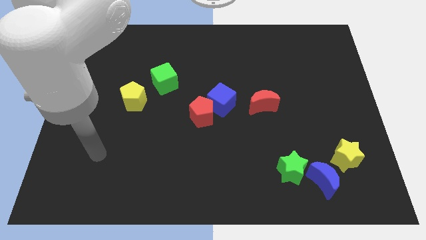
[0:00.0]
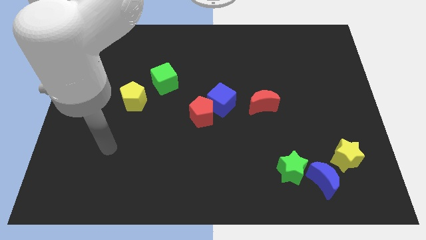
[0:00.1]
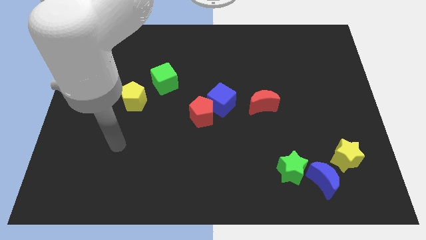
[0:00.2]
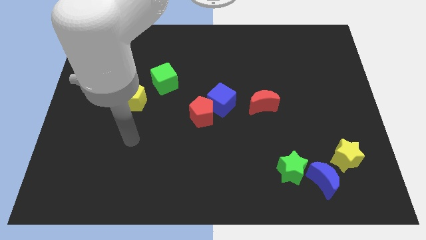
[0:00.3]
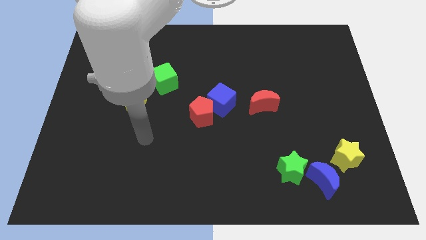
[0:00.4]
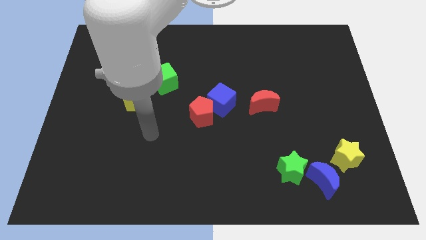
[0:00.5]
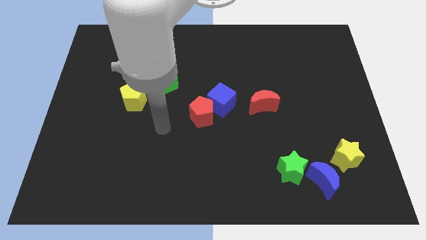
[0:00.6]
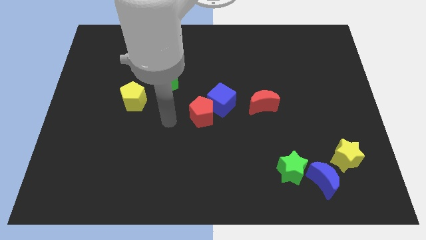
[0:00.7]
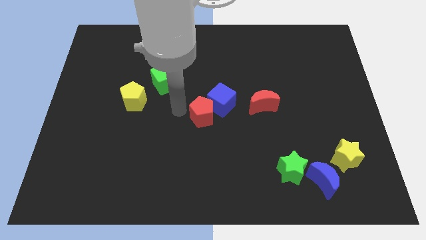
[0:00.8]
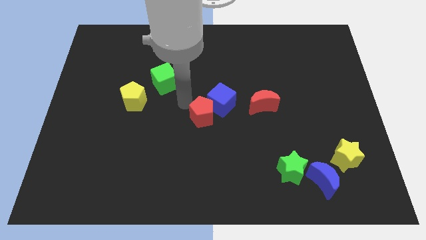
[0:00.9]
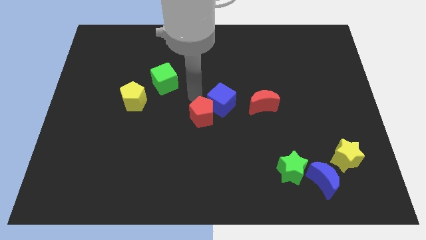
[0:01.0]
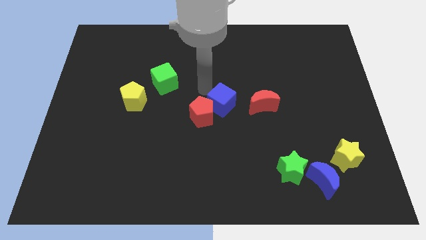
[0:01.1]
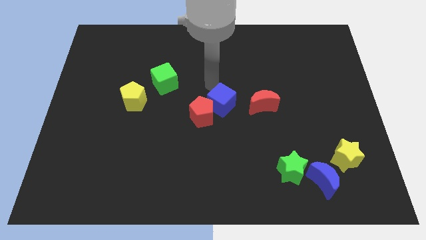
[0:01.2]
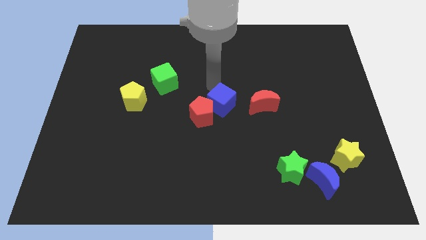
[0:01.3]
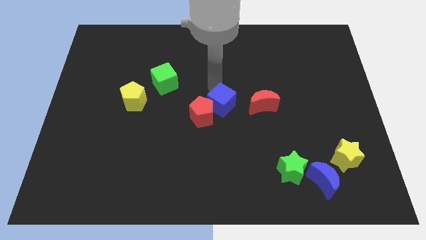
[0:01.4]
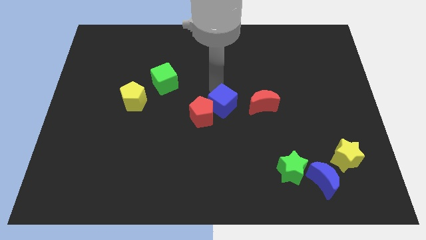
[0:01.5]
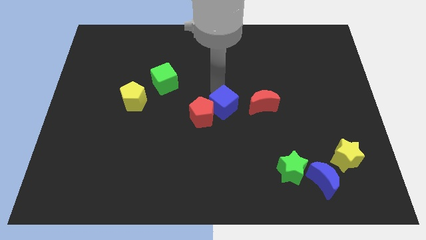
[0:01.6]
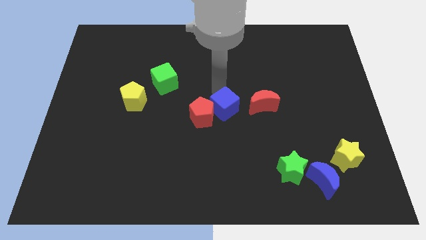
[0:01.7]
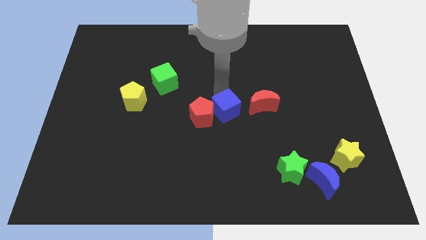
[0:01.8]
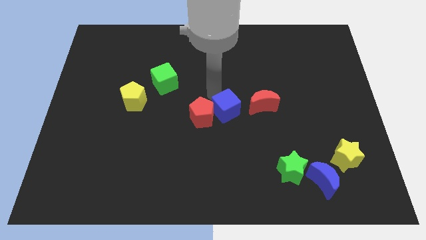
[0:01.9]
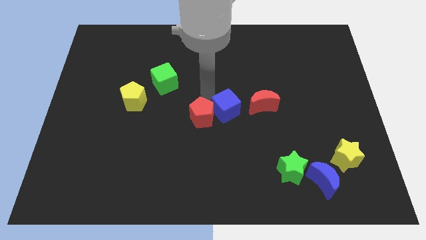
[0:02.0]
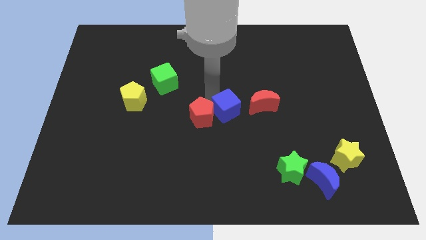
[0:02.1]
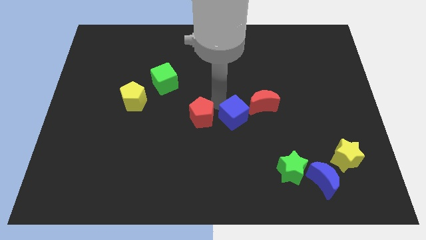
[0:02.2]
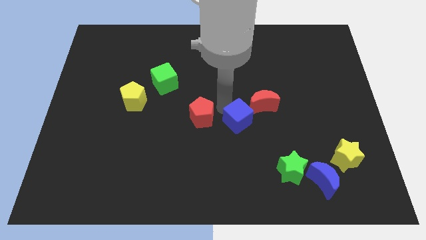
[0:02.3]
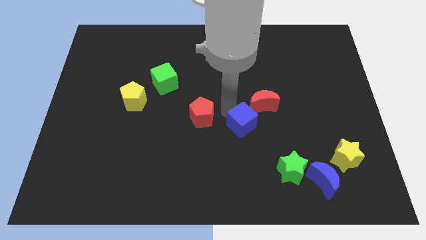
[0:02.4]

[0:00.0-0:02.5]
move the blue cube a bit down and right diagonally

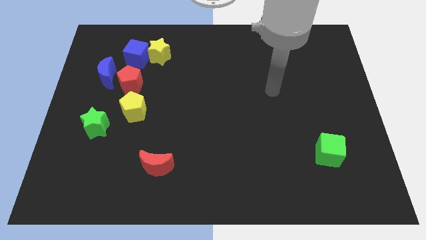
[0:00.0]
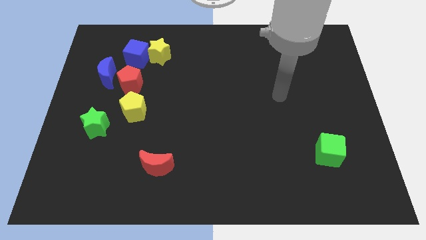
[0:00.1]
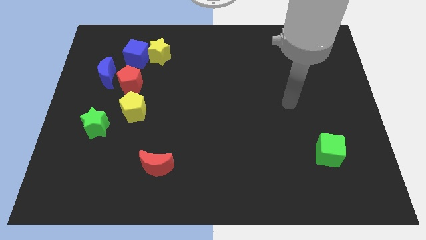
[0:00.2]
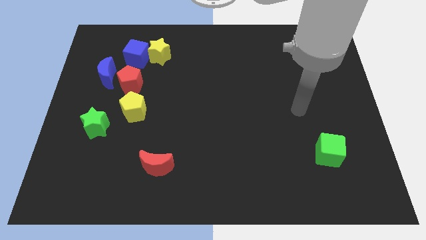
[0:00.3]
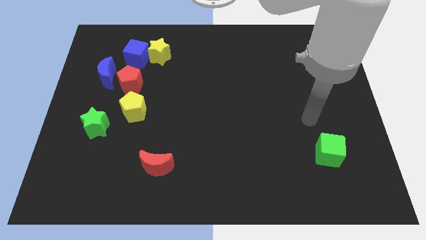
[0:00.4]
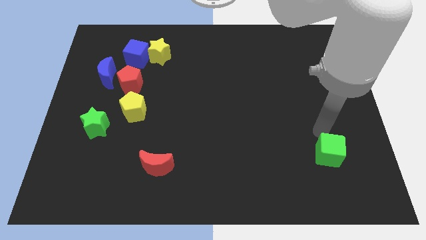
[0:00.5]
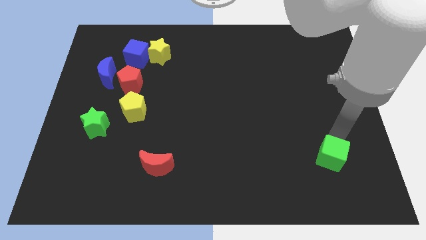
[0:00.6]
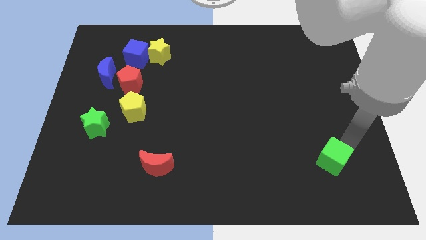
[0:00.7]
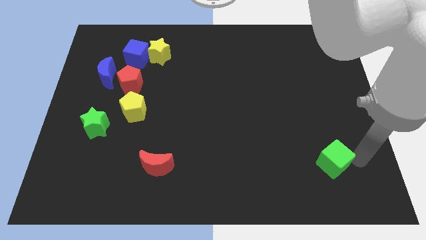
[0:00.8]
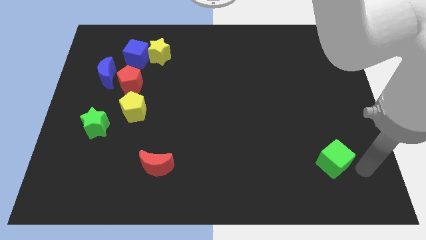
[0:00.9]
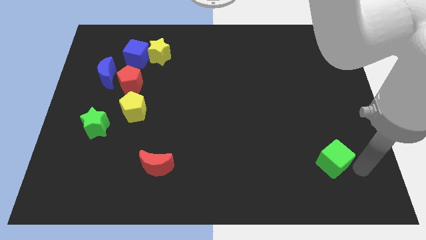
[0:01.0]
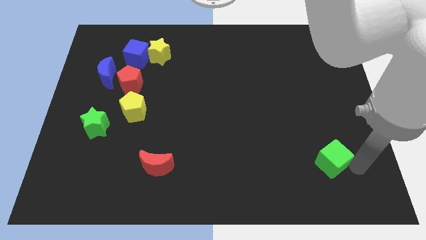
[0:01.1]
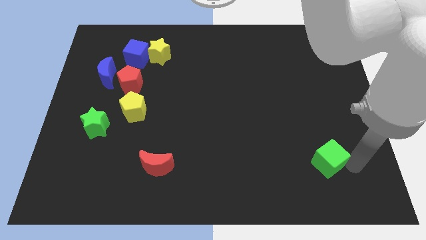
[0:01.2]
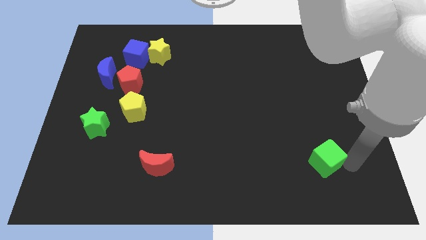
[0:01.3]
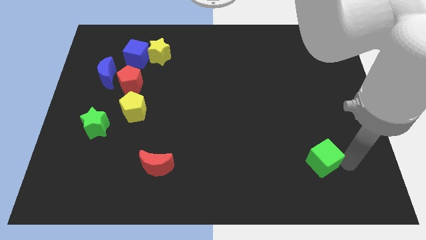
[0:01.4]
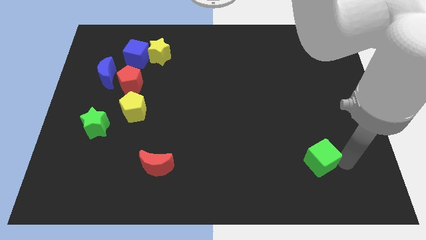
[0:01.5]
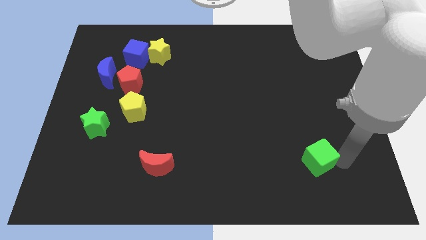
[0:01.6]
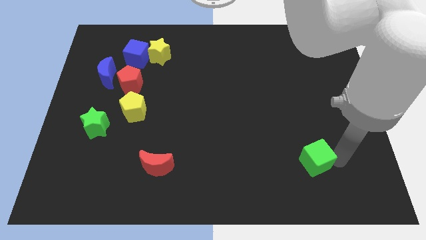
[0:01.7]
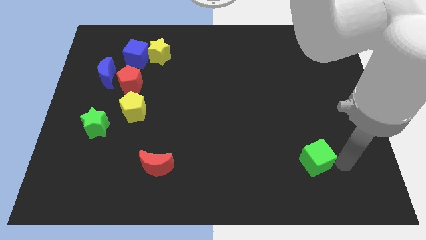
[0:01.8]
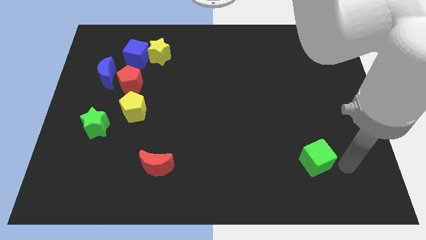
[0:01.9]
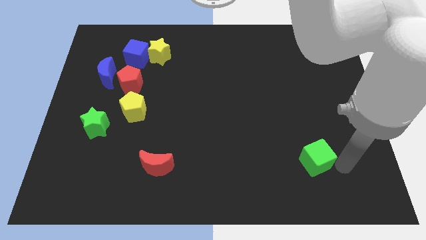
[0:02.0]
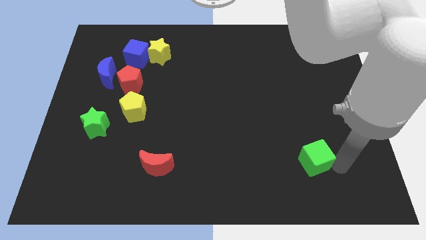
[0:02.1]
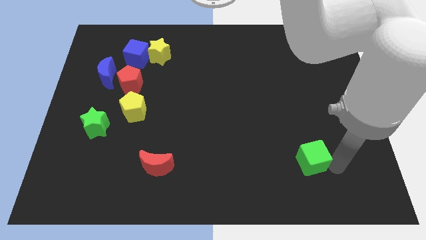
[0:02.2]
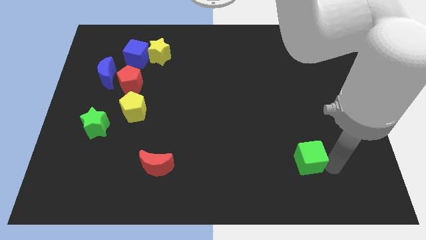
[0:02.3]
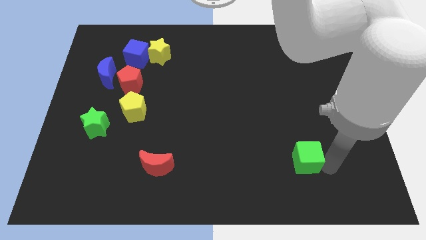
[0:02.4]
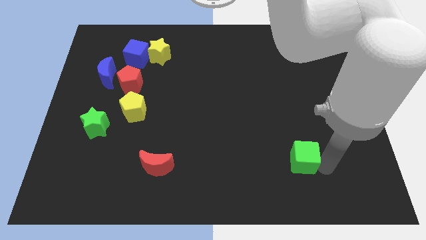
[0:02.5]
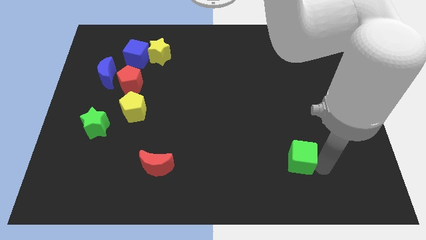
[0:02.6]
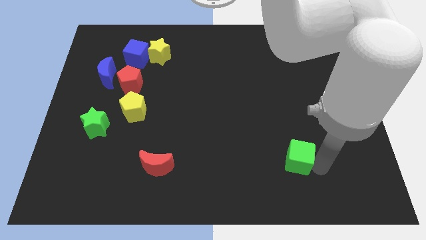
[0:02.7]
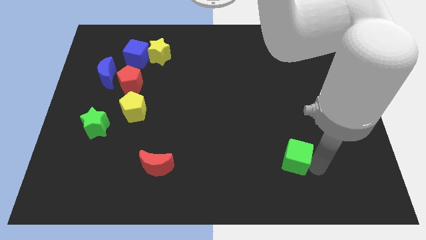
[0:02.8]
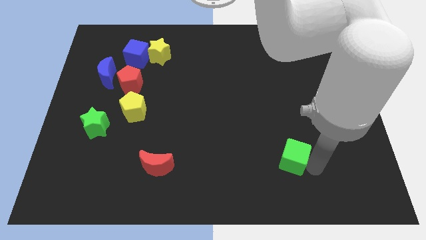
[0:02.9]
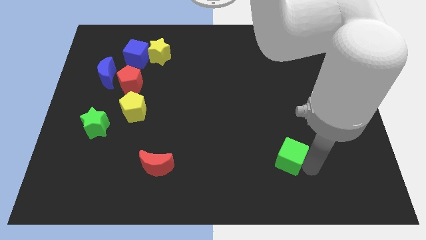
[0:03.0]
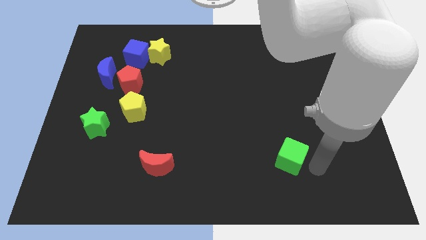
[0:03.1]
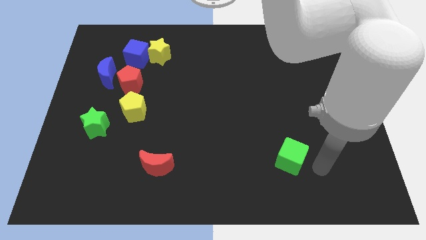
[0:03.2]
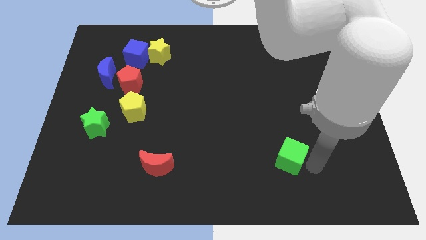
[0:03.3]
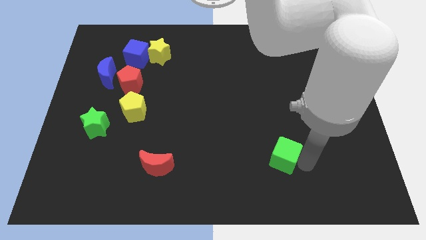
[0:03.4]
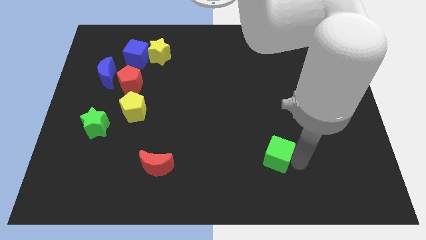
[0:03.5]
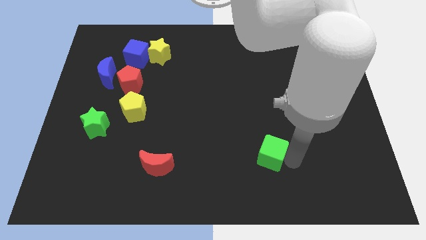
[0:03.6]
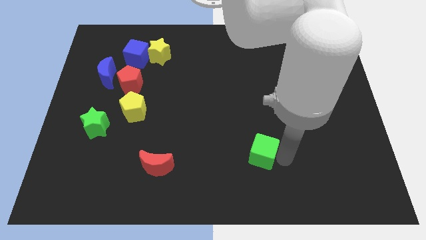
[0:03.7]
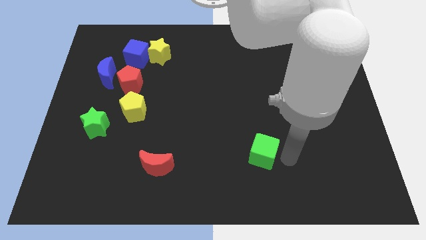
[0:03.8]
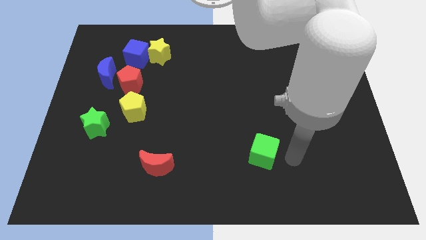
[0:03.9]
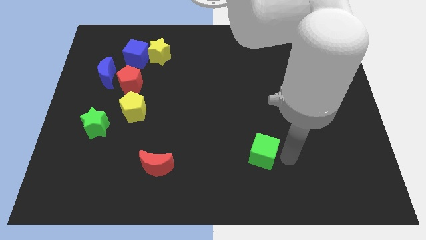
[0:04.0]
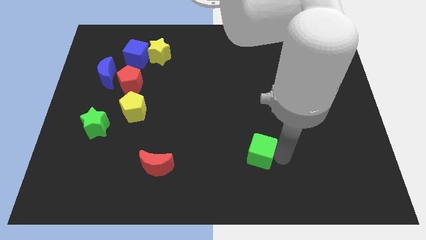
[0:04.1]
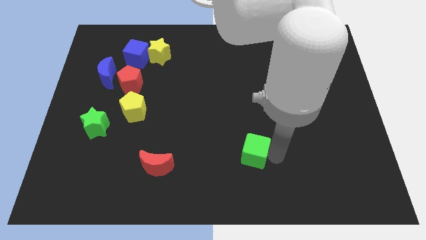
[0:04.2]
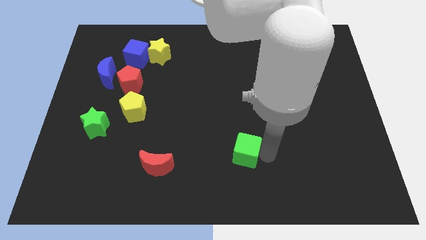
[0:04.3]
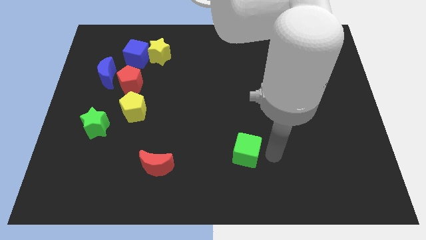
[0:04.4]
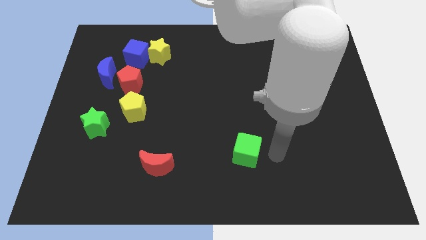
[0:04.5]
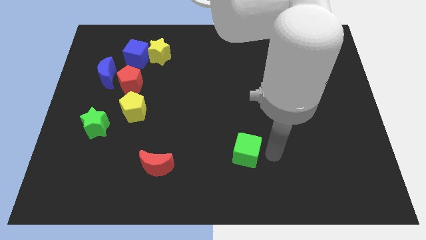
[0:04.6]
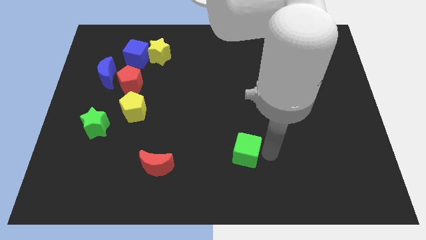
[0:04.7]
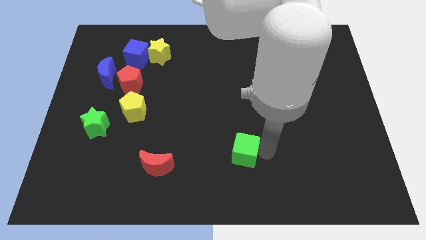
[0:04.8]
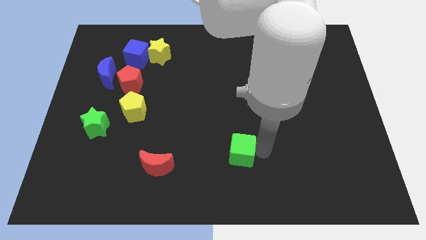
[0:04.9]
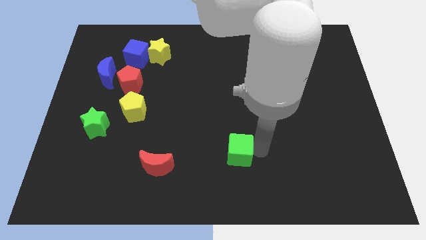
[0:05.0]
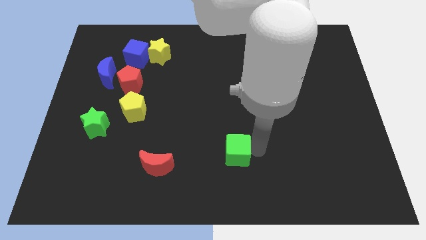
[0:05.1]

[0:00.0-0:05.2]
push the green cube left

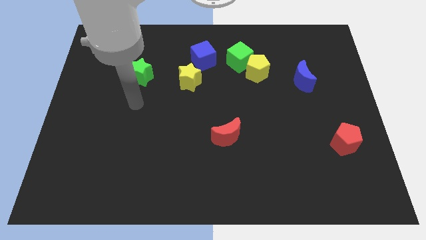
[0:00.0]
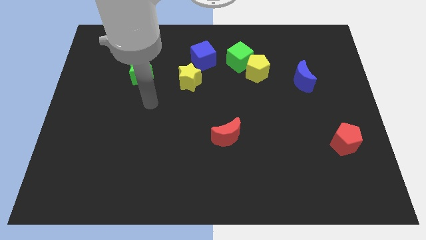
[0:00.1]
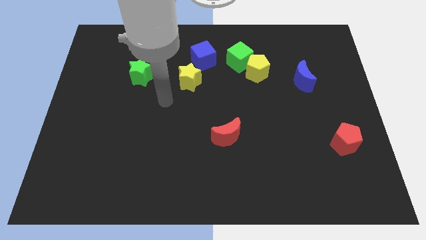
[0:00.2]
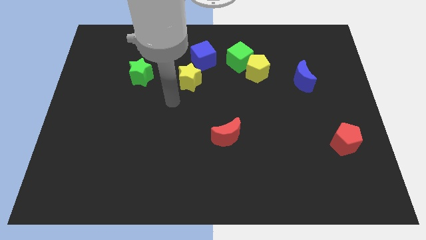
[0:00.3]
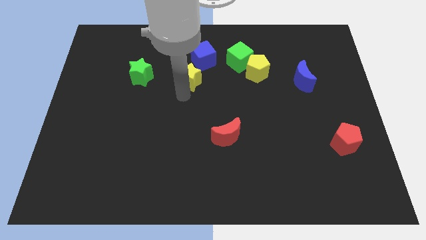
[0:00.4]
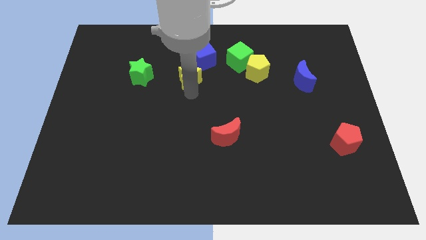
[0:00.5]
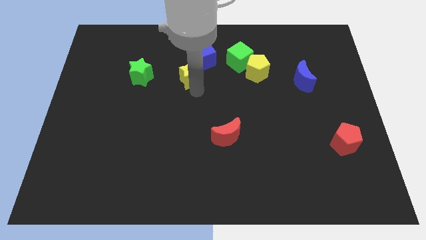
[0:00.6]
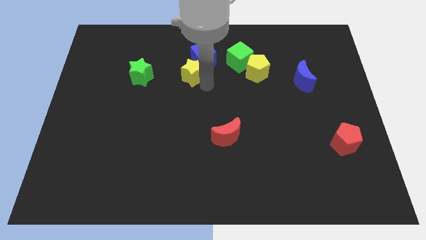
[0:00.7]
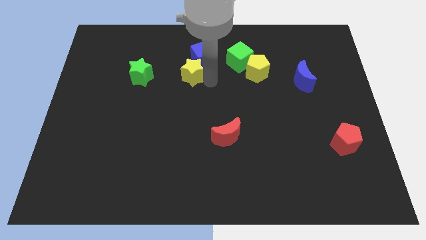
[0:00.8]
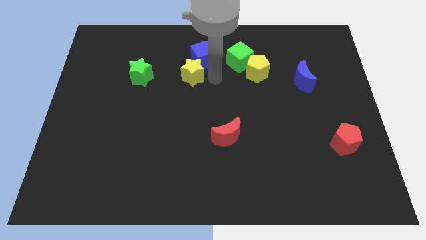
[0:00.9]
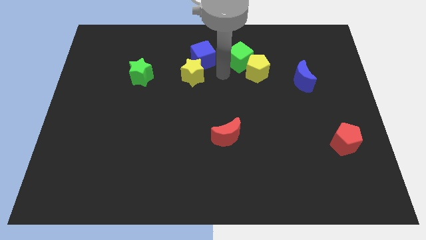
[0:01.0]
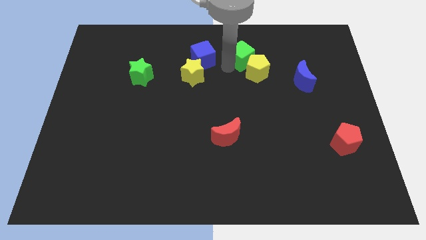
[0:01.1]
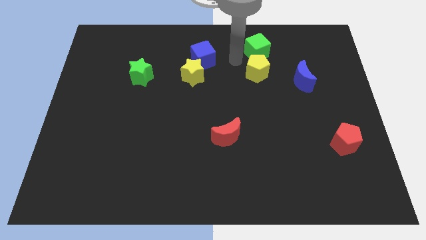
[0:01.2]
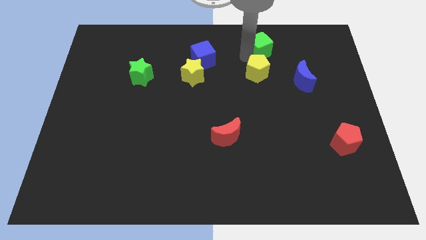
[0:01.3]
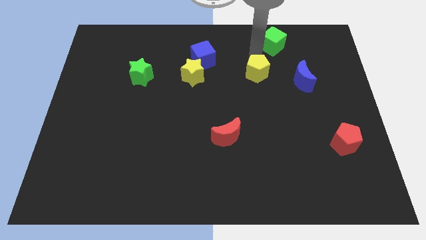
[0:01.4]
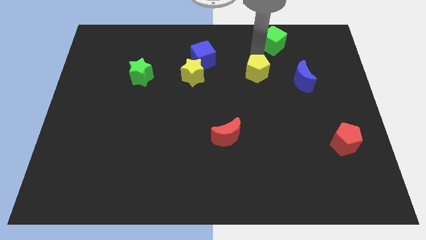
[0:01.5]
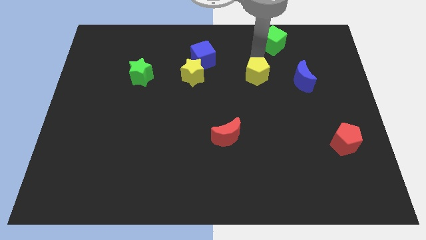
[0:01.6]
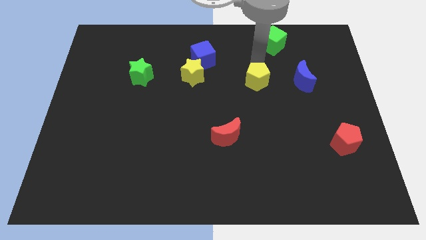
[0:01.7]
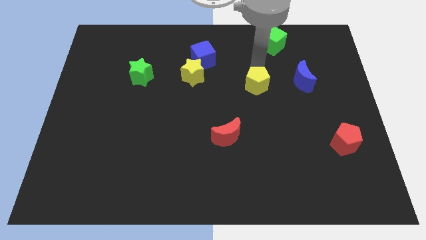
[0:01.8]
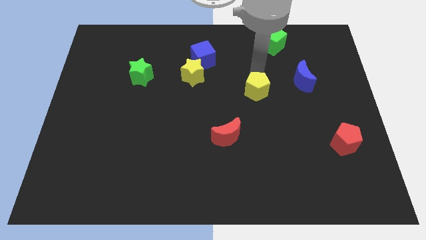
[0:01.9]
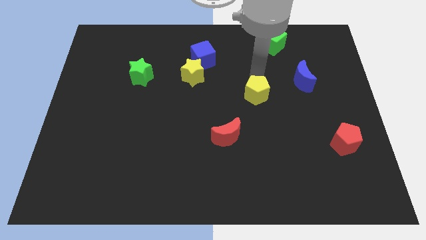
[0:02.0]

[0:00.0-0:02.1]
slightly slide the yellow pentagon downwards
